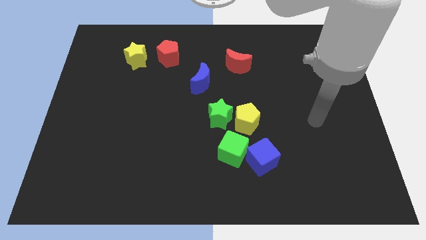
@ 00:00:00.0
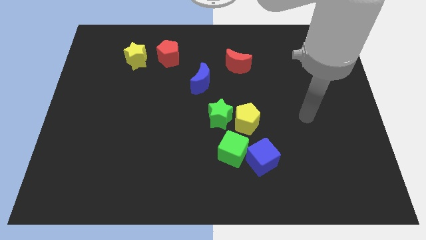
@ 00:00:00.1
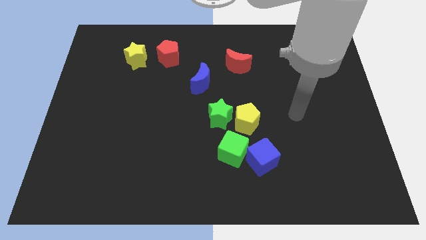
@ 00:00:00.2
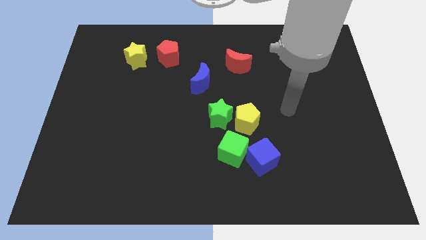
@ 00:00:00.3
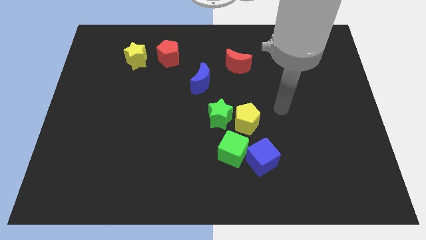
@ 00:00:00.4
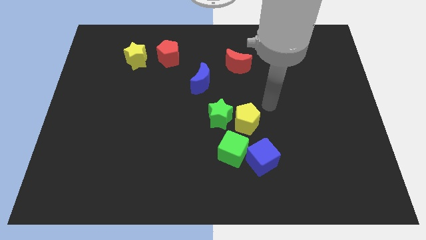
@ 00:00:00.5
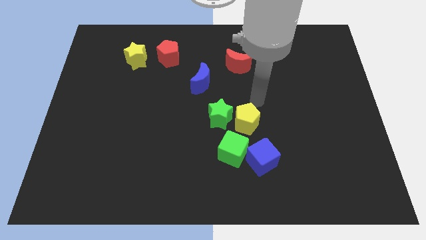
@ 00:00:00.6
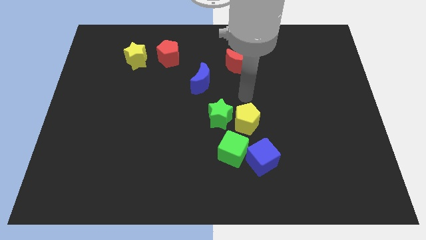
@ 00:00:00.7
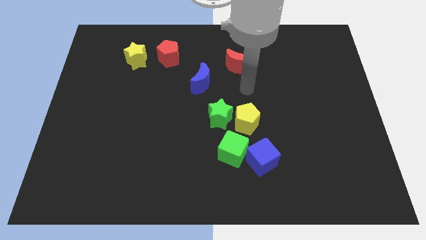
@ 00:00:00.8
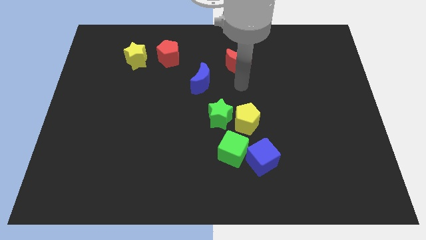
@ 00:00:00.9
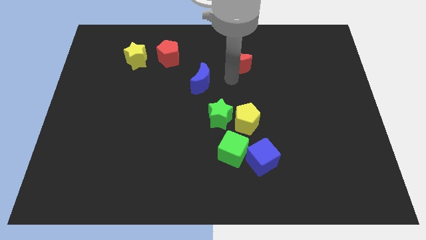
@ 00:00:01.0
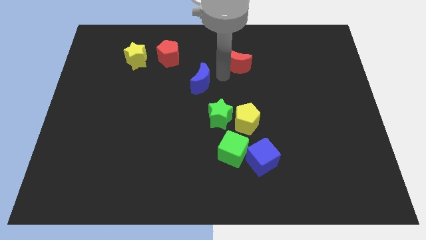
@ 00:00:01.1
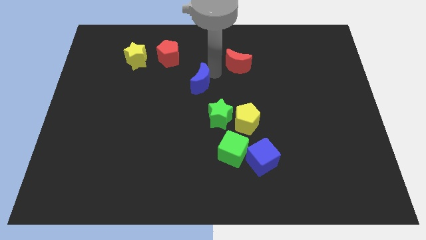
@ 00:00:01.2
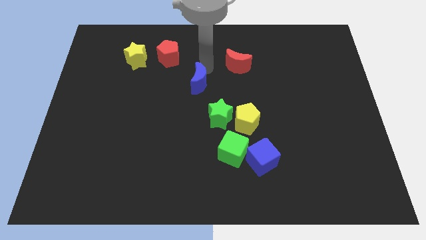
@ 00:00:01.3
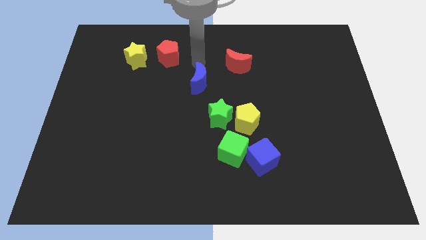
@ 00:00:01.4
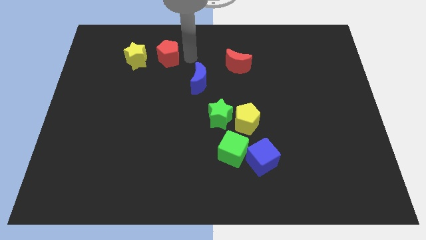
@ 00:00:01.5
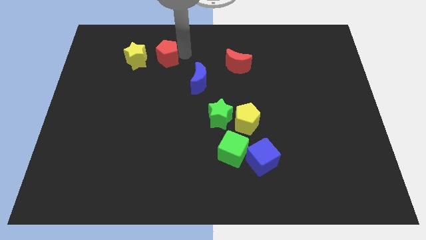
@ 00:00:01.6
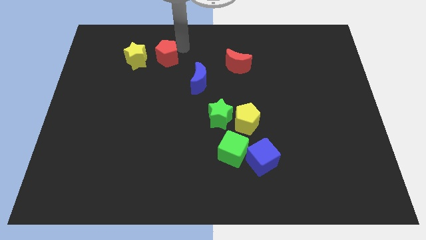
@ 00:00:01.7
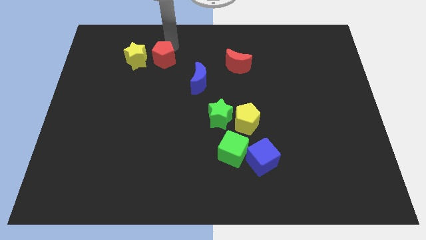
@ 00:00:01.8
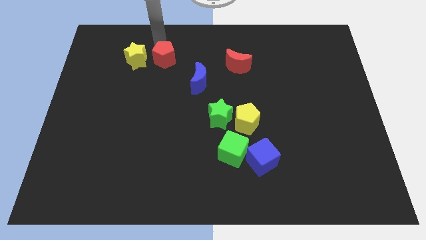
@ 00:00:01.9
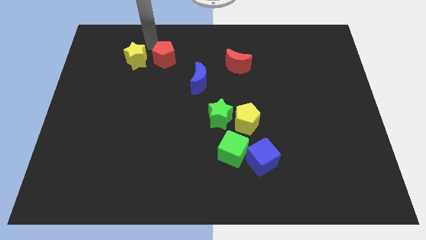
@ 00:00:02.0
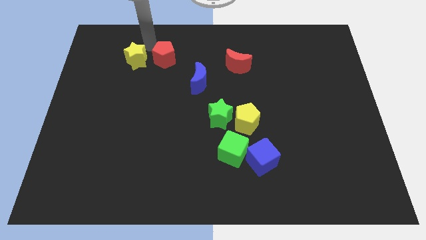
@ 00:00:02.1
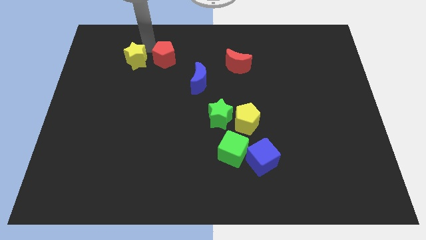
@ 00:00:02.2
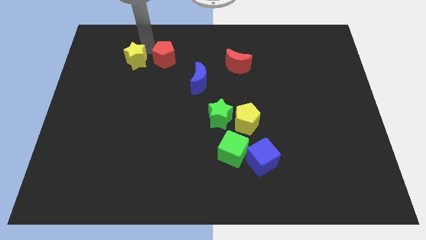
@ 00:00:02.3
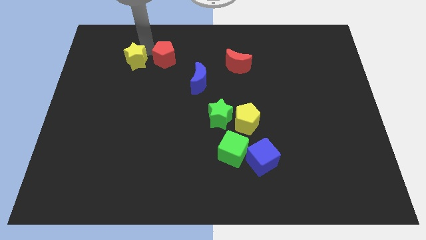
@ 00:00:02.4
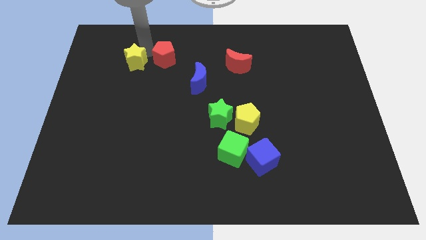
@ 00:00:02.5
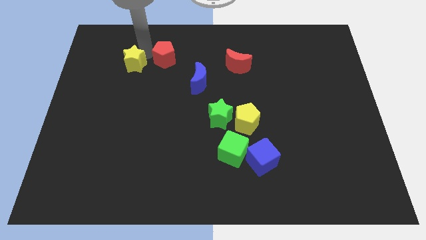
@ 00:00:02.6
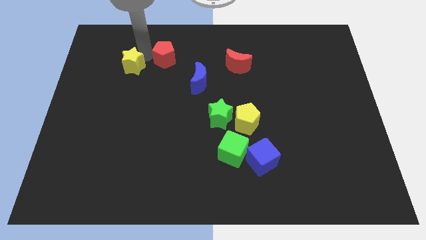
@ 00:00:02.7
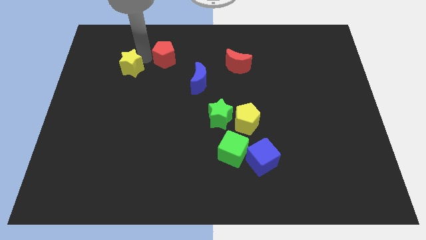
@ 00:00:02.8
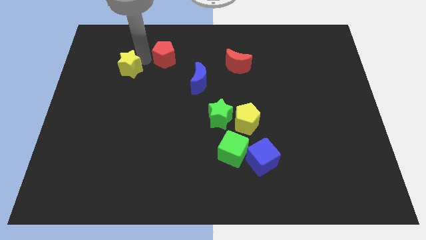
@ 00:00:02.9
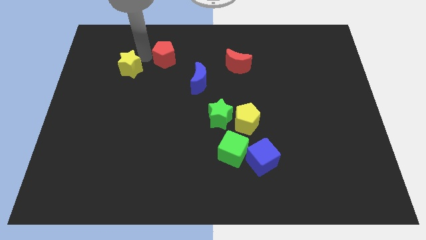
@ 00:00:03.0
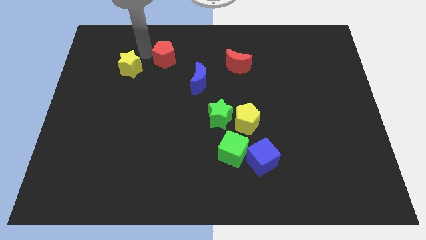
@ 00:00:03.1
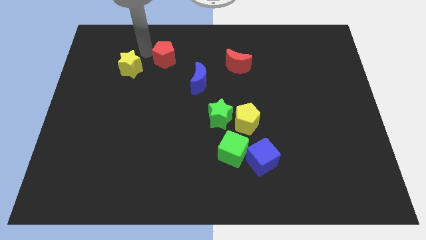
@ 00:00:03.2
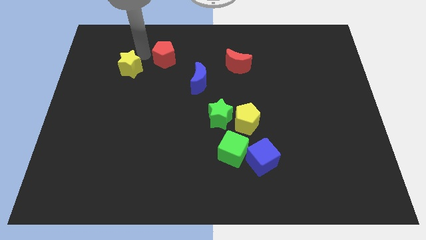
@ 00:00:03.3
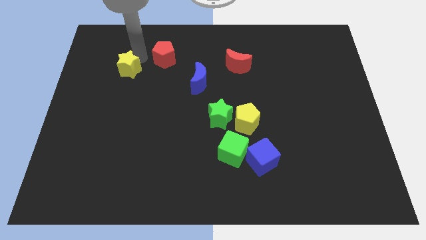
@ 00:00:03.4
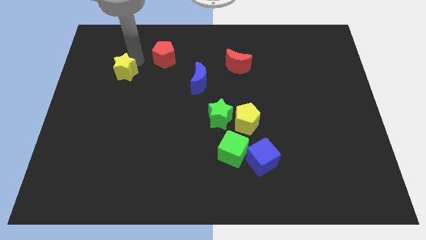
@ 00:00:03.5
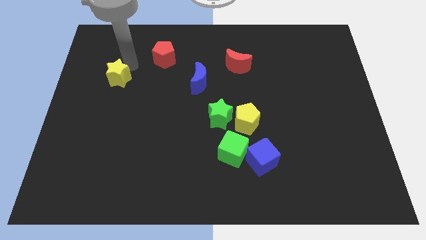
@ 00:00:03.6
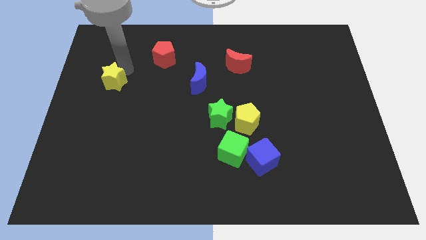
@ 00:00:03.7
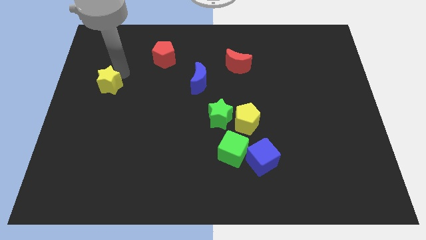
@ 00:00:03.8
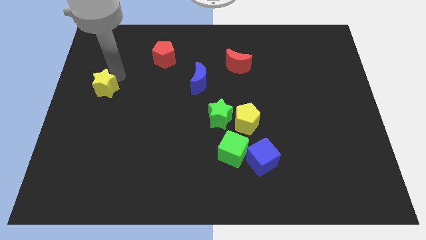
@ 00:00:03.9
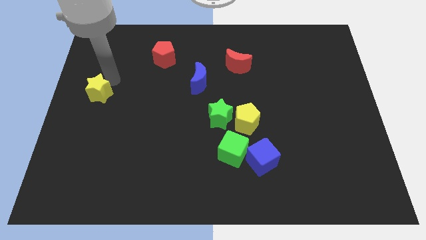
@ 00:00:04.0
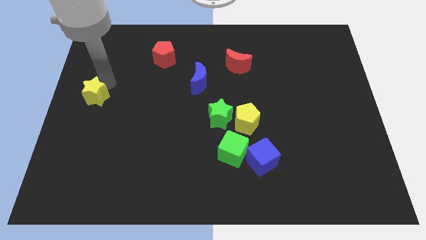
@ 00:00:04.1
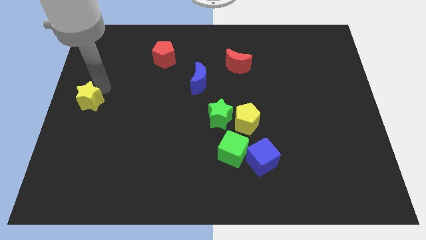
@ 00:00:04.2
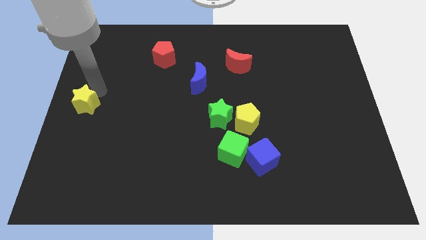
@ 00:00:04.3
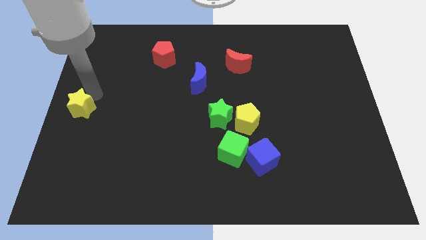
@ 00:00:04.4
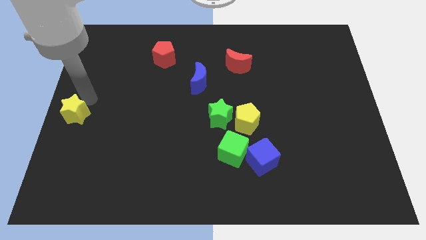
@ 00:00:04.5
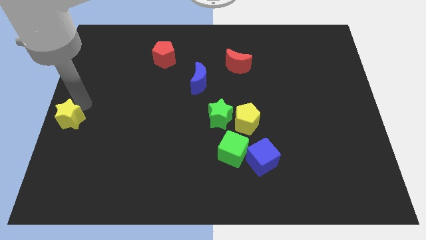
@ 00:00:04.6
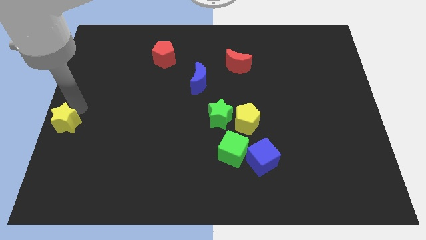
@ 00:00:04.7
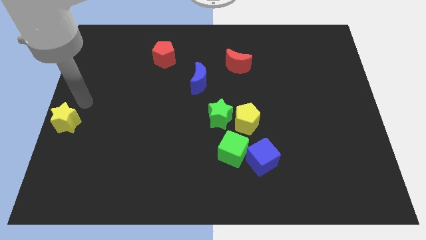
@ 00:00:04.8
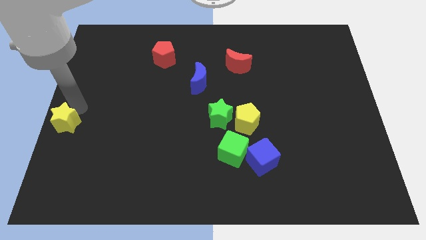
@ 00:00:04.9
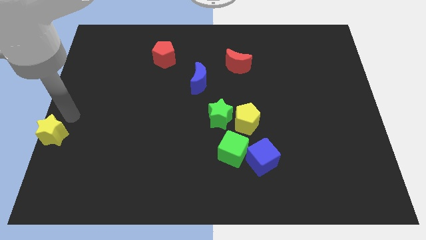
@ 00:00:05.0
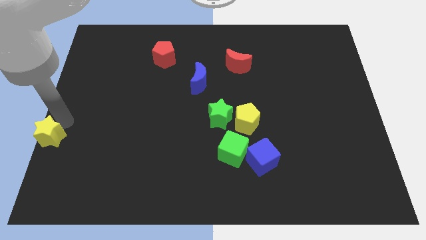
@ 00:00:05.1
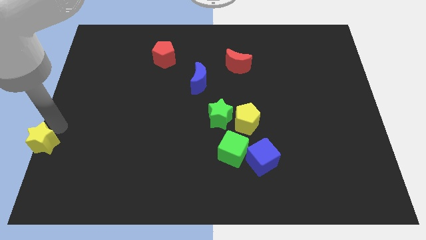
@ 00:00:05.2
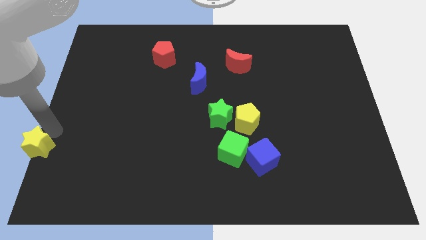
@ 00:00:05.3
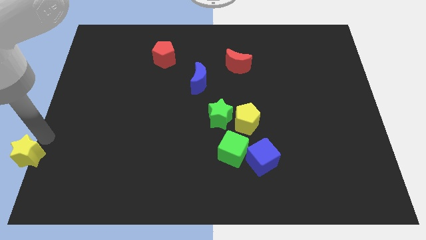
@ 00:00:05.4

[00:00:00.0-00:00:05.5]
push the yellow star to the bottom left
